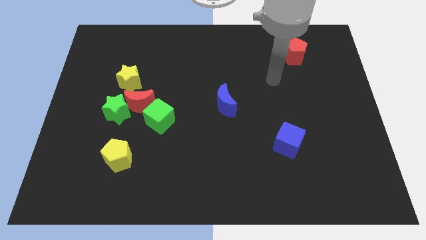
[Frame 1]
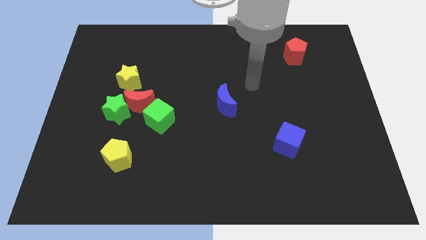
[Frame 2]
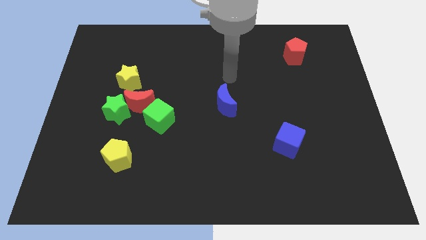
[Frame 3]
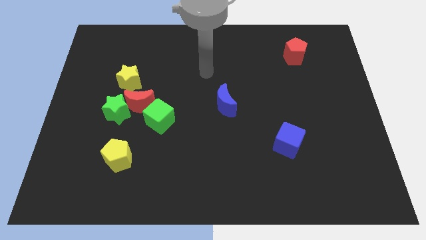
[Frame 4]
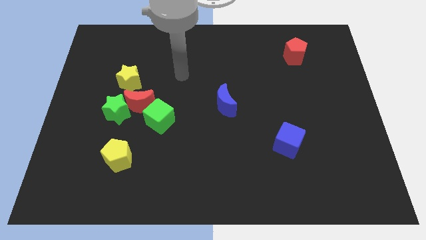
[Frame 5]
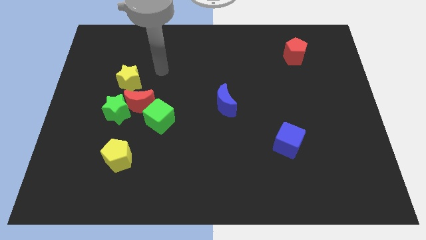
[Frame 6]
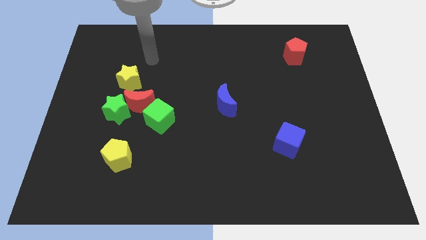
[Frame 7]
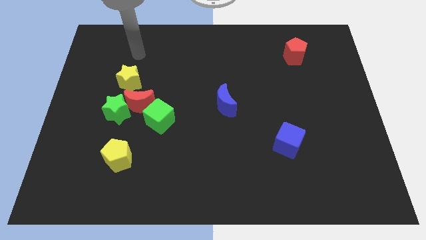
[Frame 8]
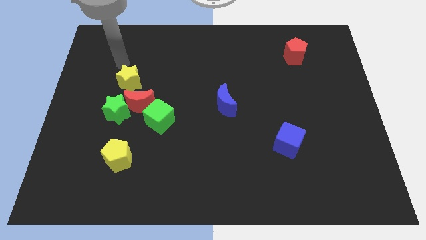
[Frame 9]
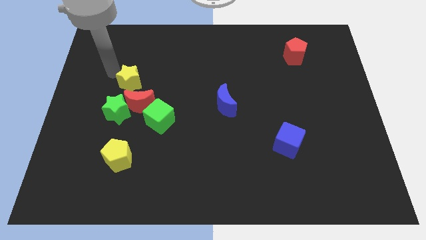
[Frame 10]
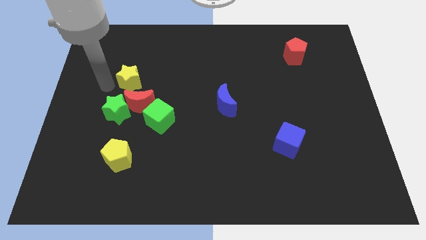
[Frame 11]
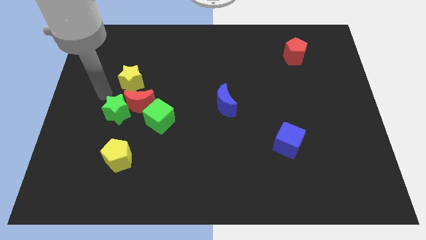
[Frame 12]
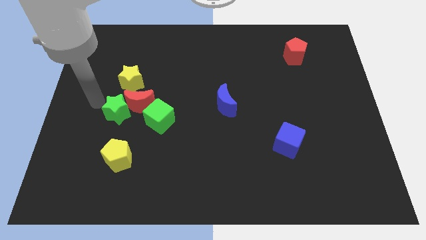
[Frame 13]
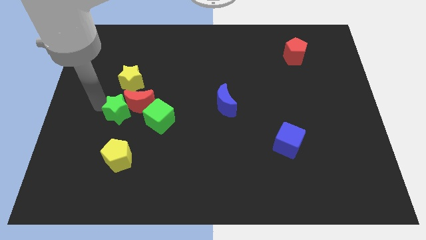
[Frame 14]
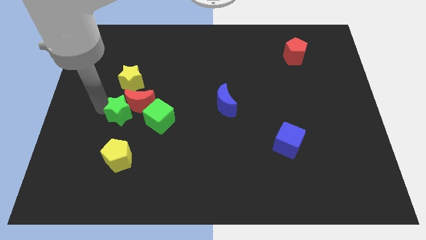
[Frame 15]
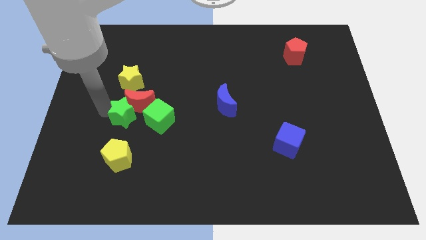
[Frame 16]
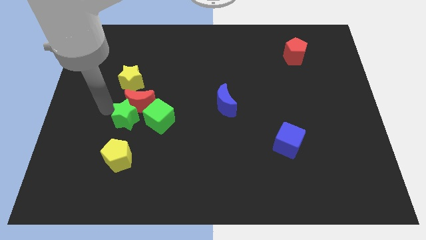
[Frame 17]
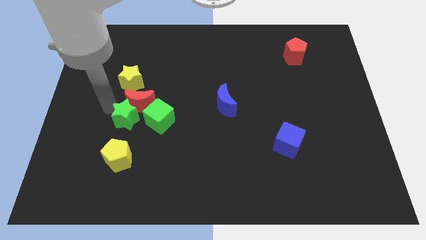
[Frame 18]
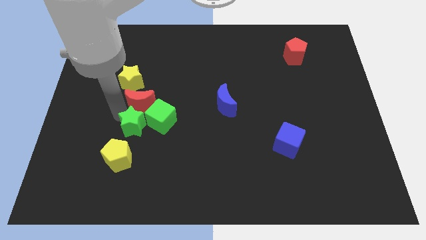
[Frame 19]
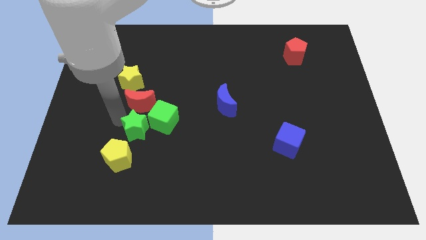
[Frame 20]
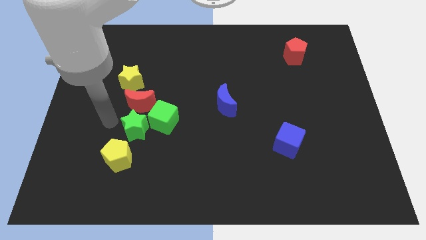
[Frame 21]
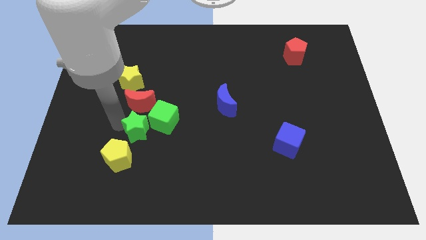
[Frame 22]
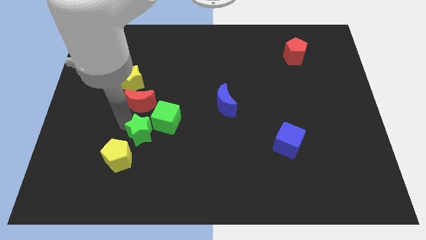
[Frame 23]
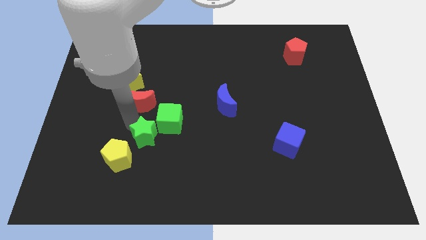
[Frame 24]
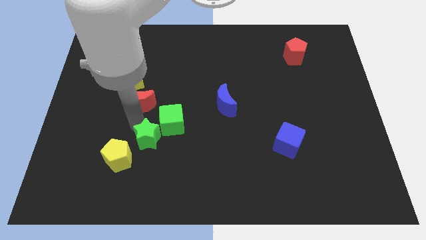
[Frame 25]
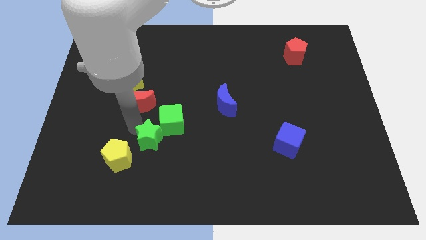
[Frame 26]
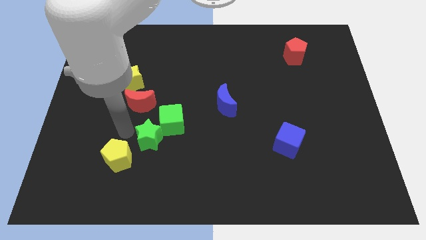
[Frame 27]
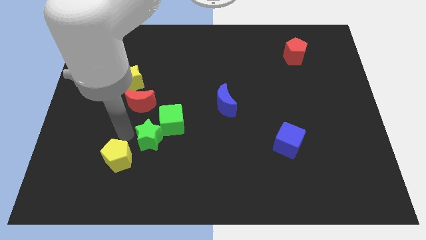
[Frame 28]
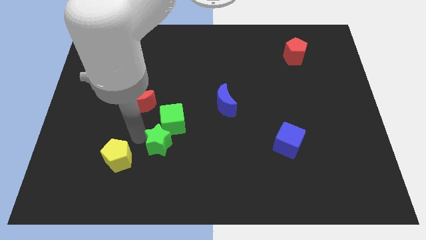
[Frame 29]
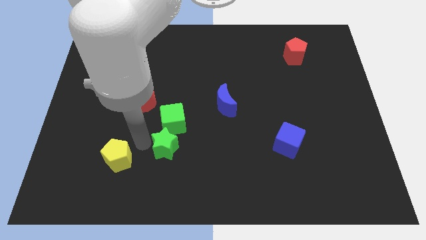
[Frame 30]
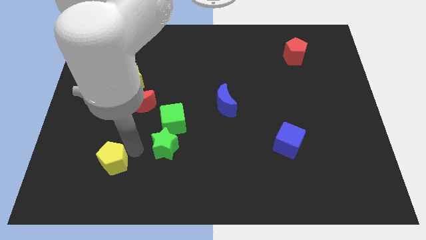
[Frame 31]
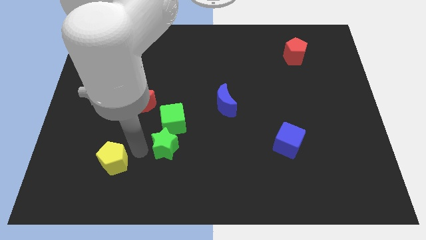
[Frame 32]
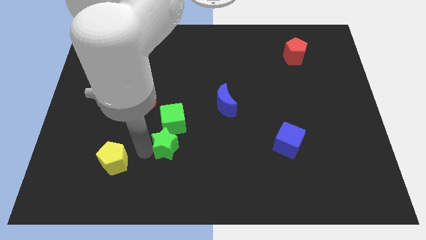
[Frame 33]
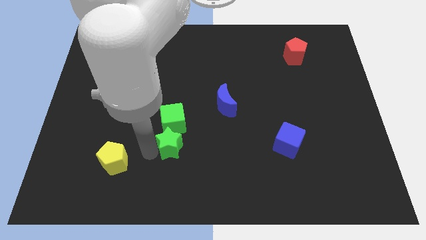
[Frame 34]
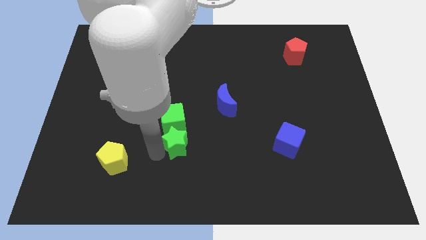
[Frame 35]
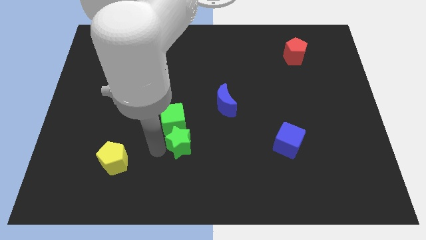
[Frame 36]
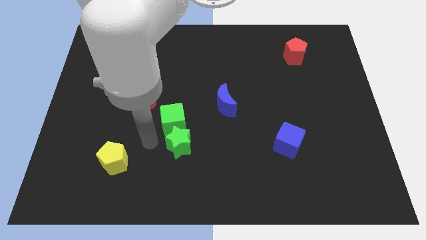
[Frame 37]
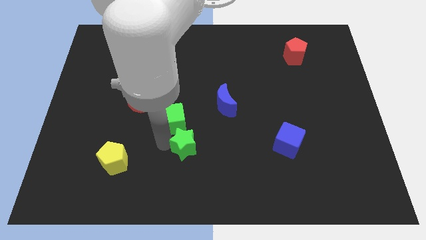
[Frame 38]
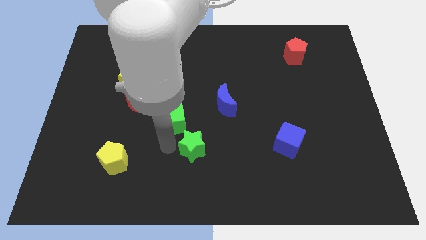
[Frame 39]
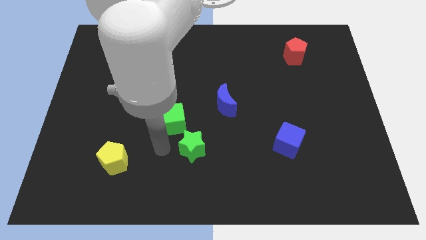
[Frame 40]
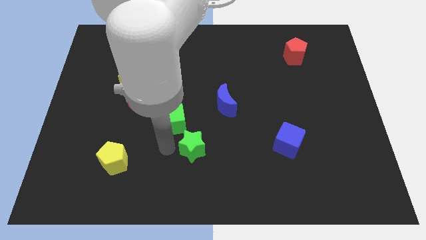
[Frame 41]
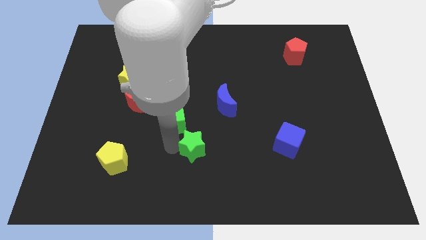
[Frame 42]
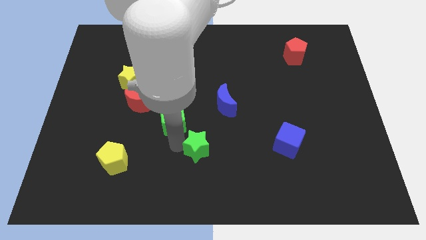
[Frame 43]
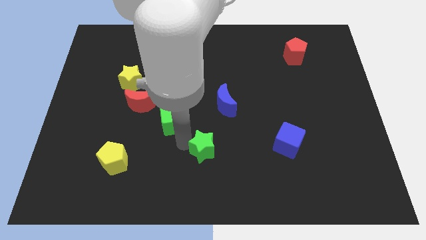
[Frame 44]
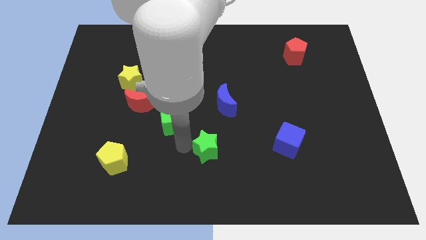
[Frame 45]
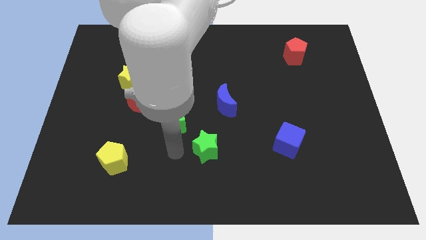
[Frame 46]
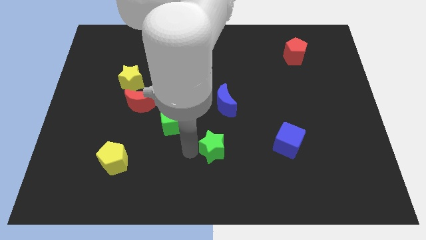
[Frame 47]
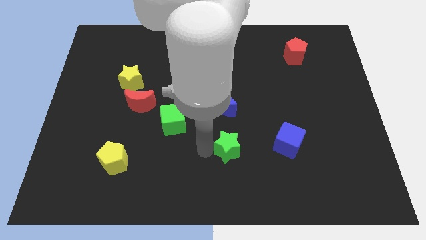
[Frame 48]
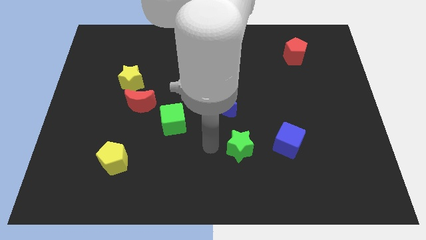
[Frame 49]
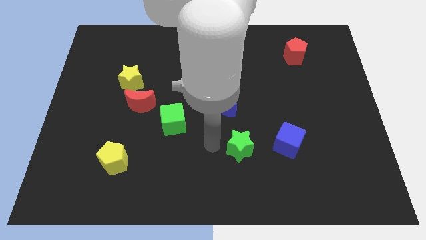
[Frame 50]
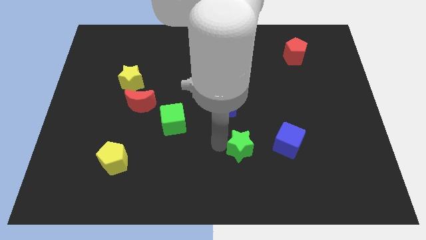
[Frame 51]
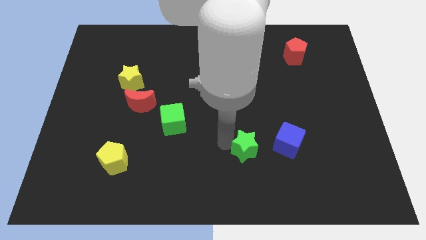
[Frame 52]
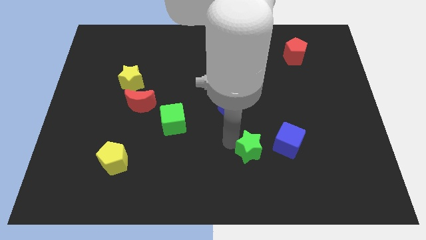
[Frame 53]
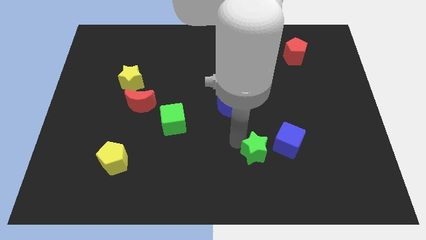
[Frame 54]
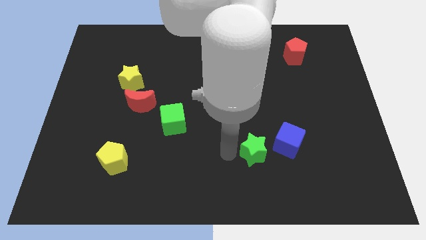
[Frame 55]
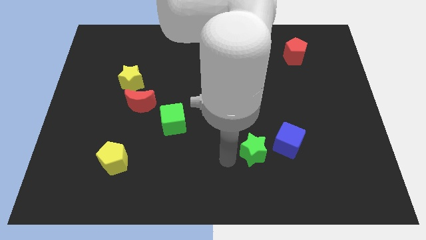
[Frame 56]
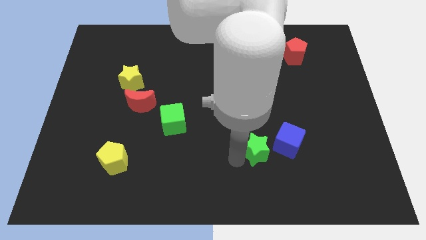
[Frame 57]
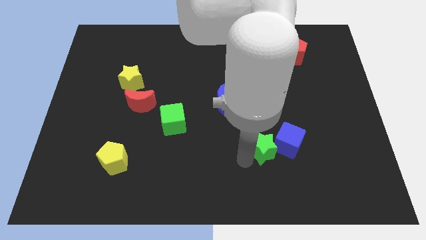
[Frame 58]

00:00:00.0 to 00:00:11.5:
move the green star close to the blue cube

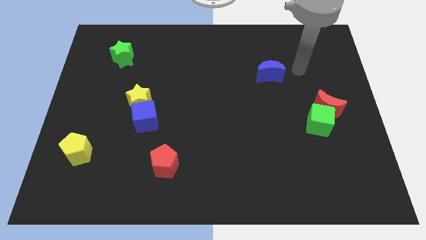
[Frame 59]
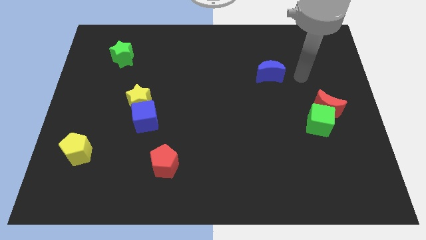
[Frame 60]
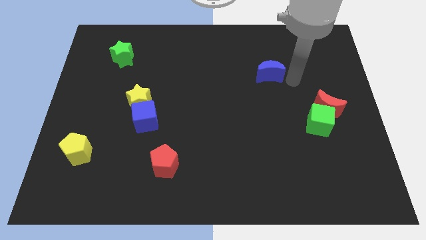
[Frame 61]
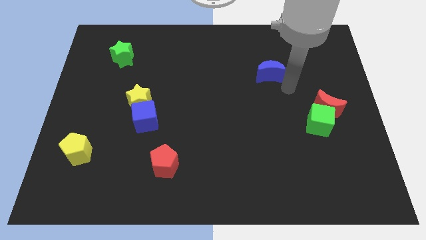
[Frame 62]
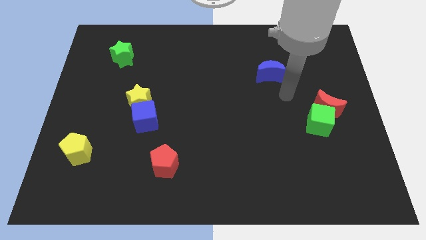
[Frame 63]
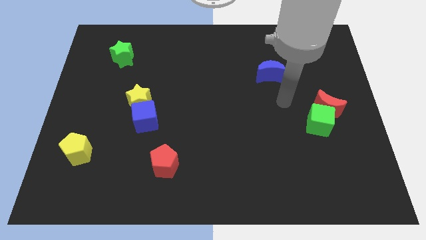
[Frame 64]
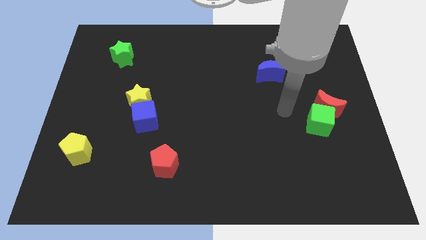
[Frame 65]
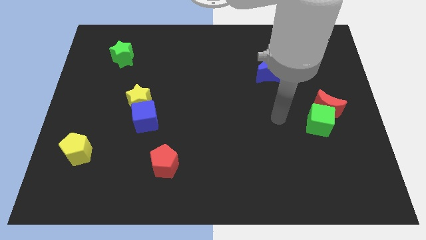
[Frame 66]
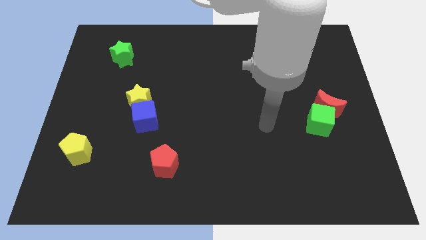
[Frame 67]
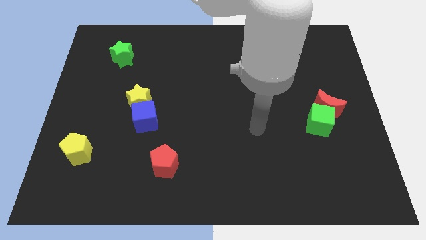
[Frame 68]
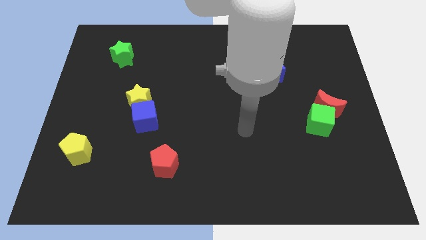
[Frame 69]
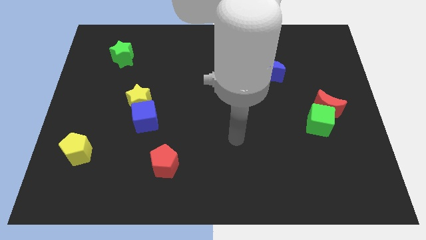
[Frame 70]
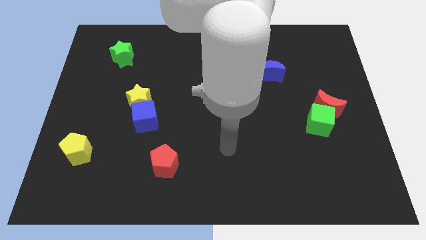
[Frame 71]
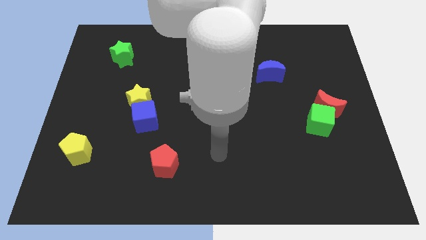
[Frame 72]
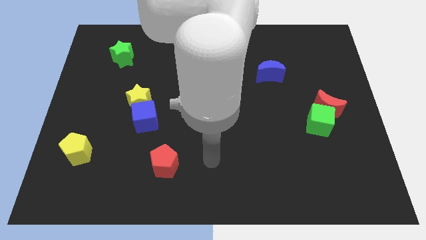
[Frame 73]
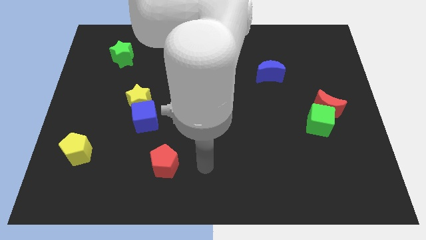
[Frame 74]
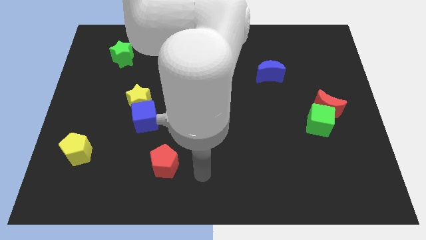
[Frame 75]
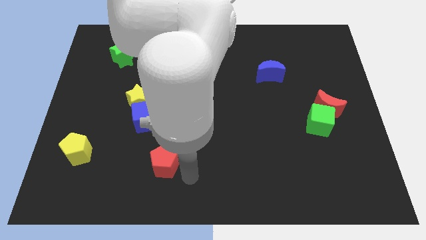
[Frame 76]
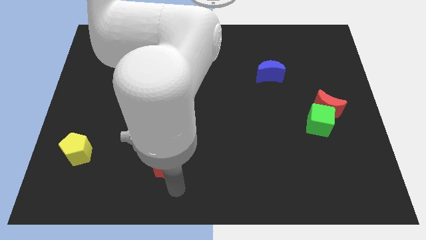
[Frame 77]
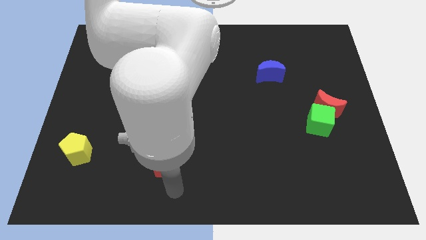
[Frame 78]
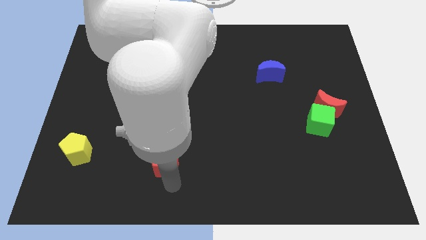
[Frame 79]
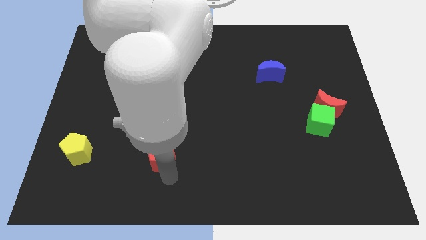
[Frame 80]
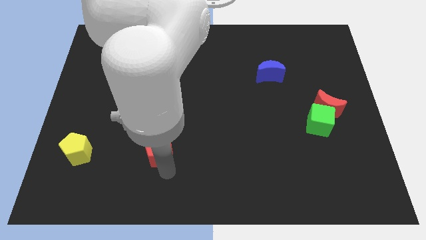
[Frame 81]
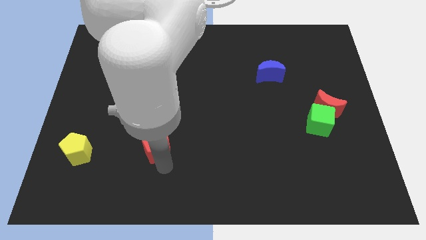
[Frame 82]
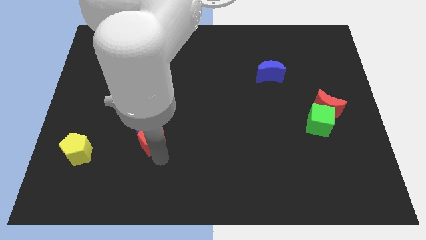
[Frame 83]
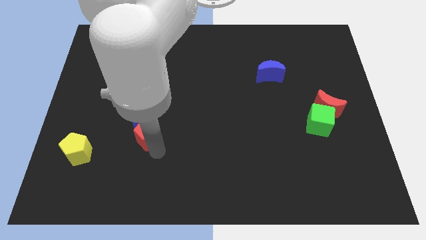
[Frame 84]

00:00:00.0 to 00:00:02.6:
push the red pentagon close to the blue cube
